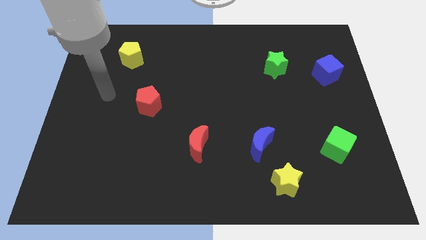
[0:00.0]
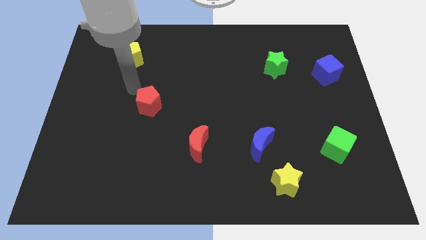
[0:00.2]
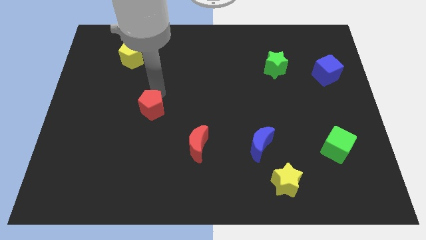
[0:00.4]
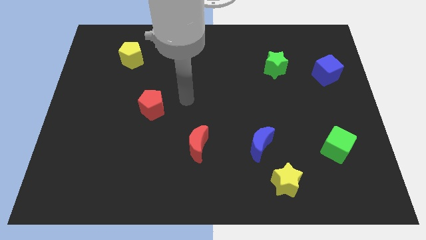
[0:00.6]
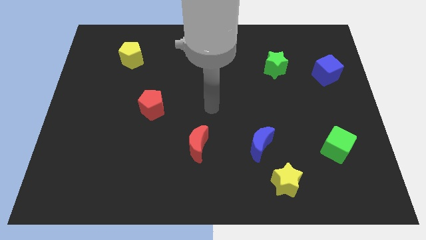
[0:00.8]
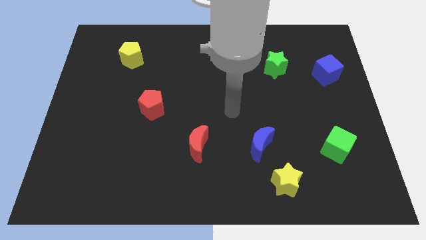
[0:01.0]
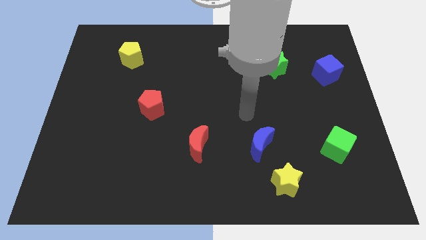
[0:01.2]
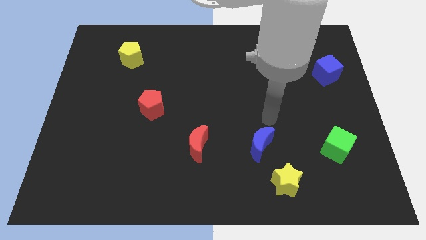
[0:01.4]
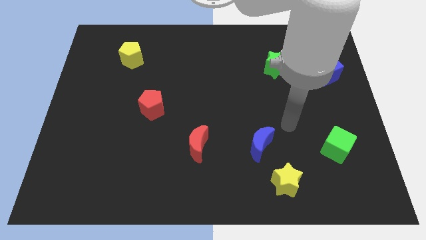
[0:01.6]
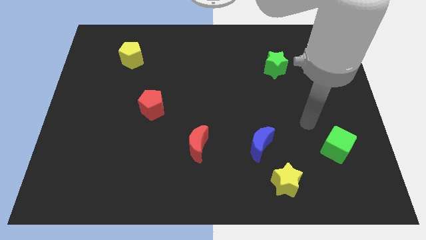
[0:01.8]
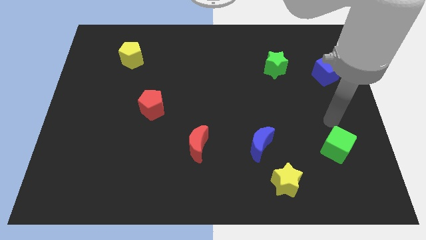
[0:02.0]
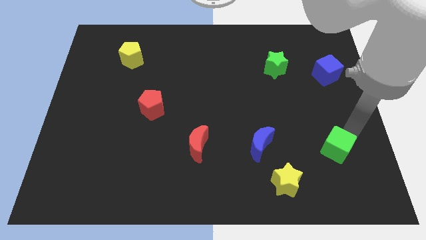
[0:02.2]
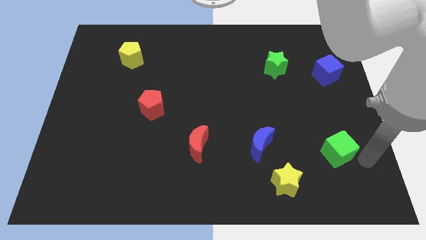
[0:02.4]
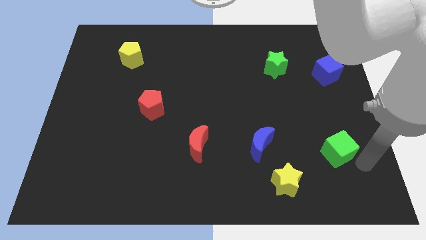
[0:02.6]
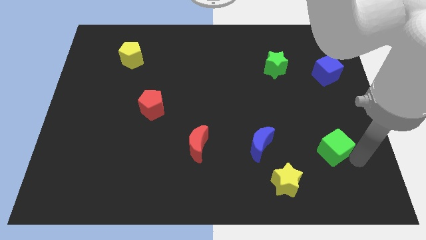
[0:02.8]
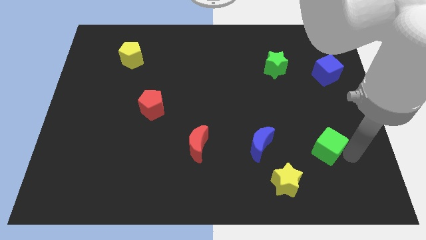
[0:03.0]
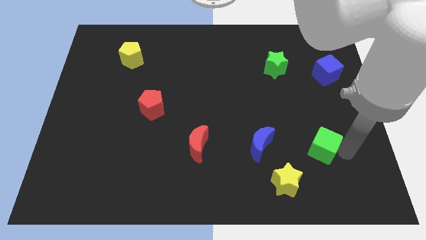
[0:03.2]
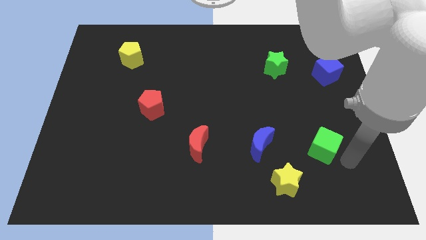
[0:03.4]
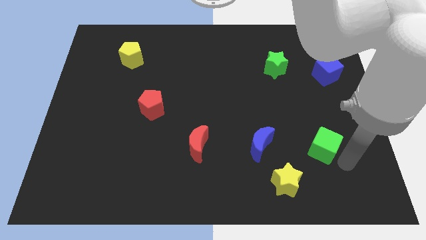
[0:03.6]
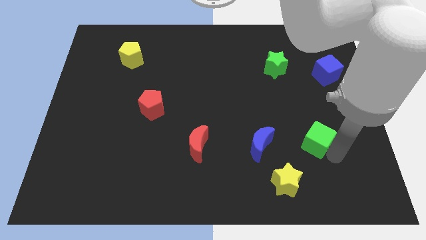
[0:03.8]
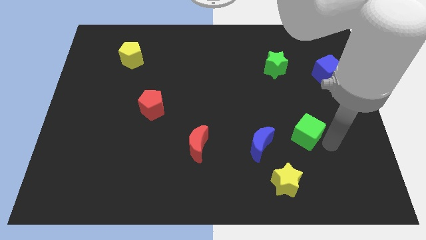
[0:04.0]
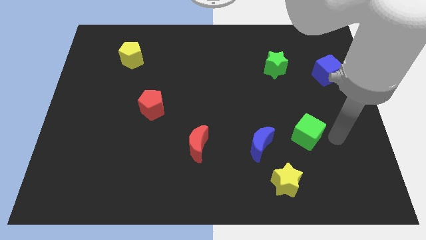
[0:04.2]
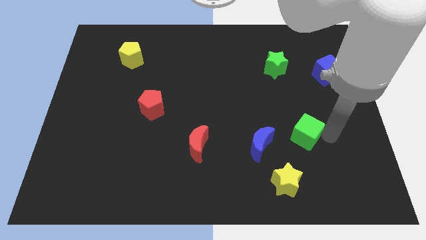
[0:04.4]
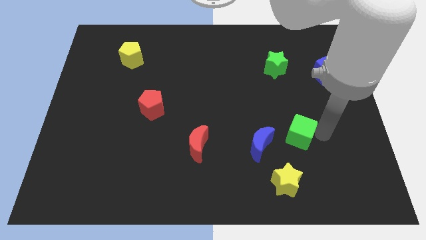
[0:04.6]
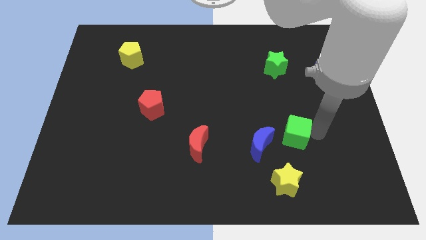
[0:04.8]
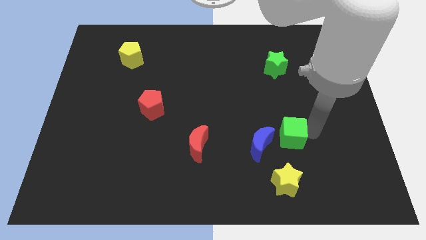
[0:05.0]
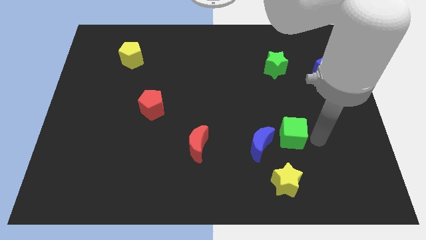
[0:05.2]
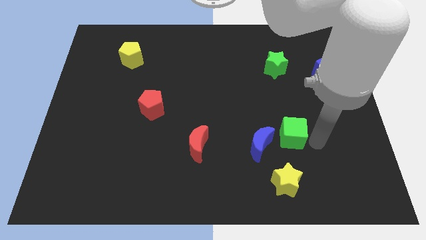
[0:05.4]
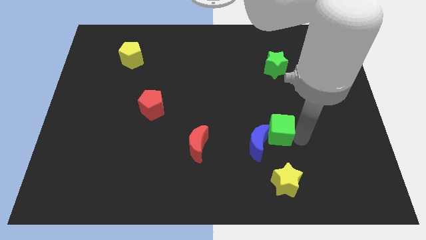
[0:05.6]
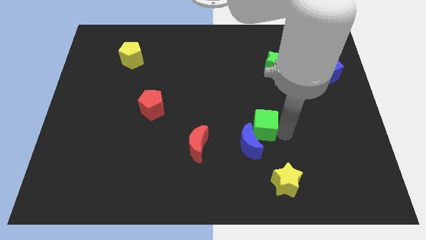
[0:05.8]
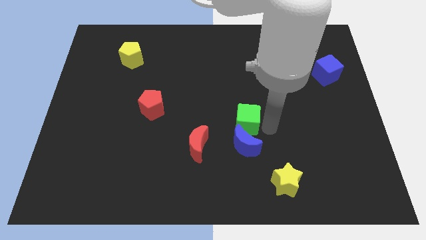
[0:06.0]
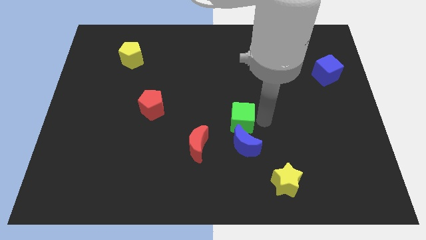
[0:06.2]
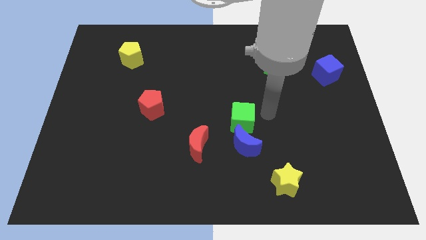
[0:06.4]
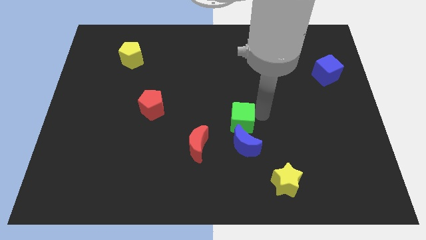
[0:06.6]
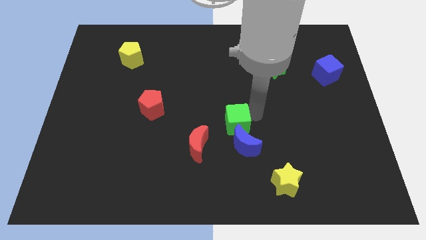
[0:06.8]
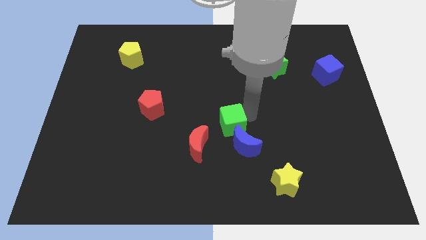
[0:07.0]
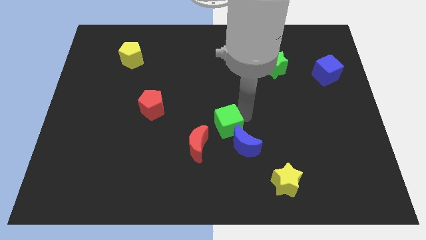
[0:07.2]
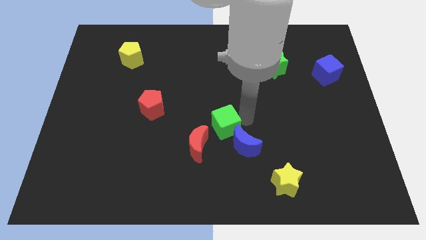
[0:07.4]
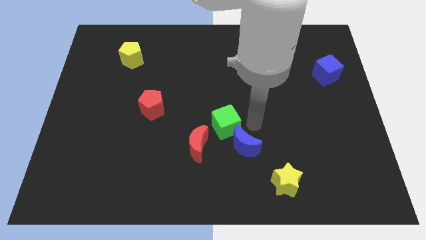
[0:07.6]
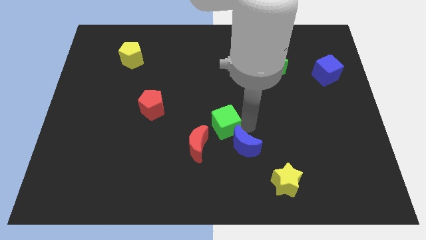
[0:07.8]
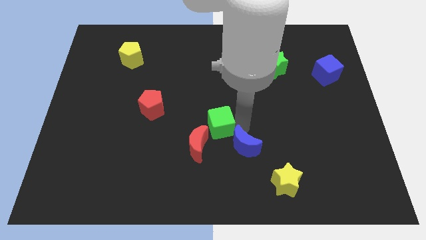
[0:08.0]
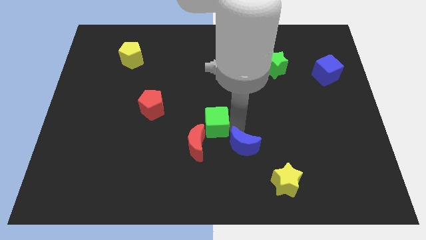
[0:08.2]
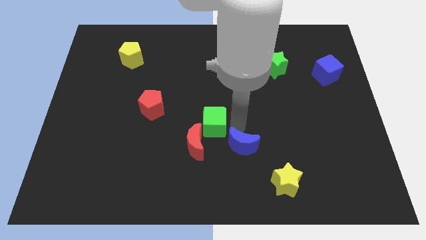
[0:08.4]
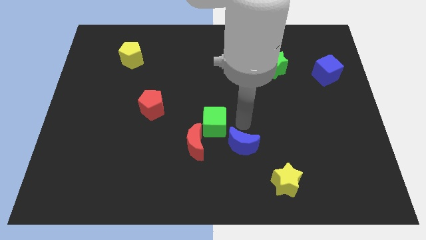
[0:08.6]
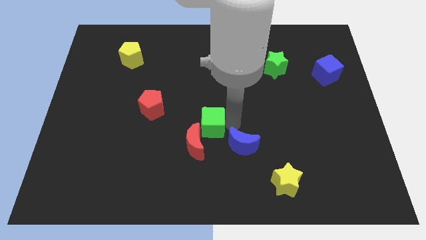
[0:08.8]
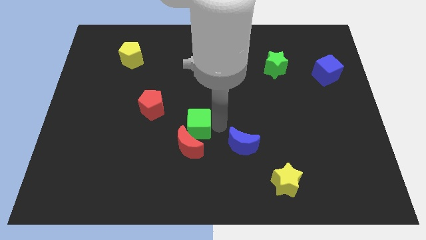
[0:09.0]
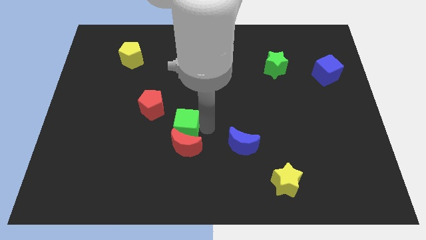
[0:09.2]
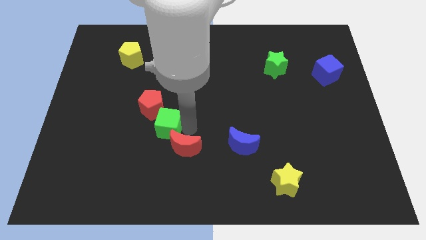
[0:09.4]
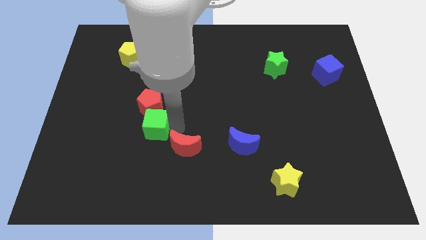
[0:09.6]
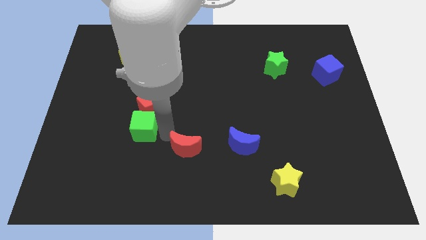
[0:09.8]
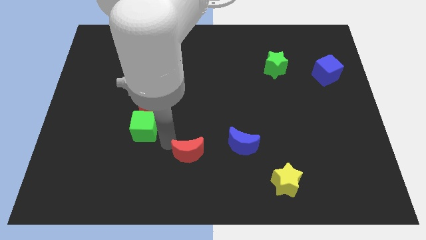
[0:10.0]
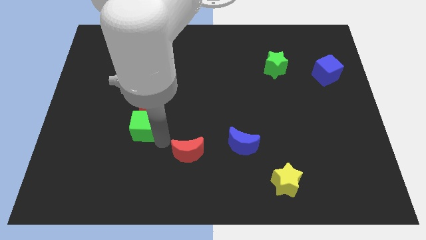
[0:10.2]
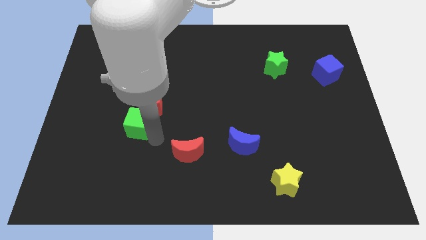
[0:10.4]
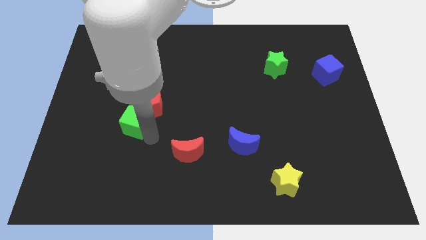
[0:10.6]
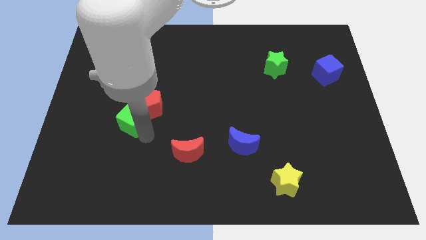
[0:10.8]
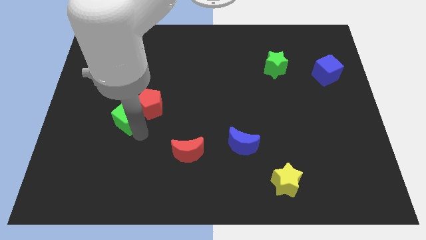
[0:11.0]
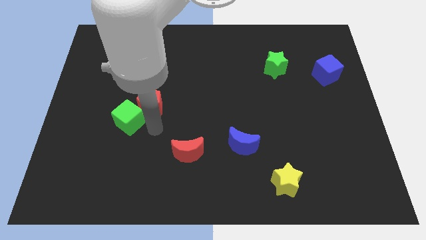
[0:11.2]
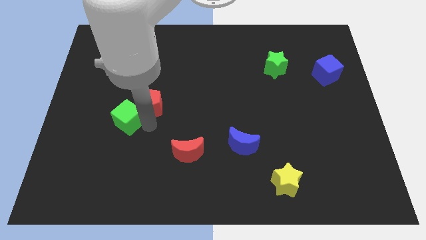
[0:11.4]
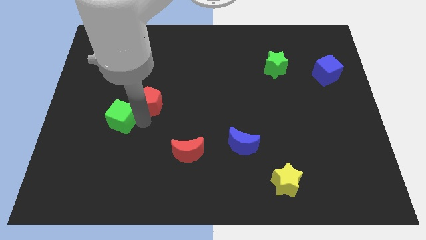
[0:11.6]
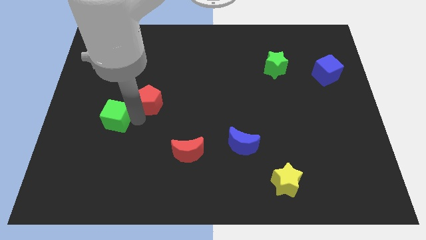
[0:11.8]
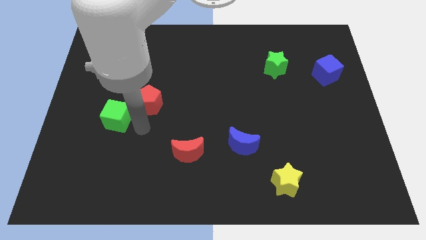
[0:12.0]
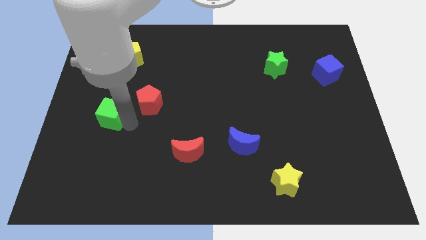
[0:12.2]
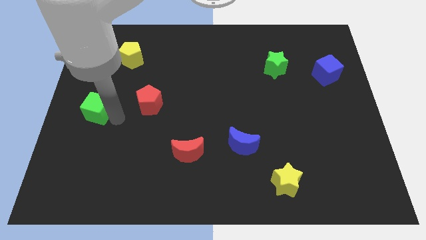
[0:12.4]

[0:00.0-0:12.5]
put the green cube to the left side
